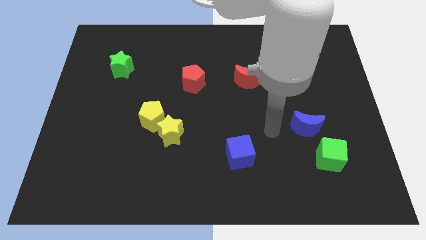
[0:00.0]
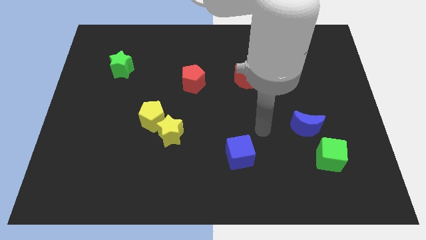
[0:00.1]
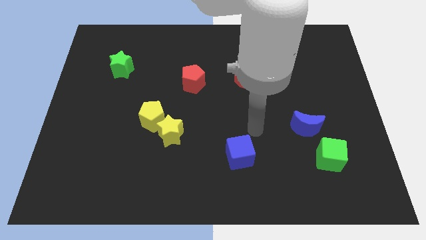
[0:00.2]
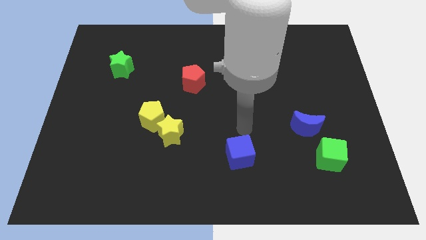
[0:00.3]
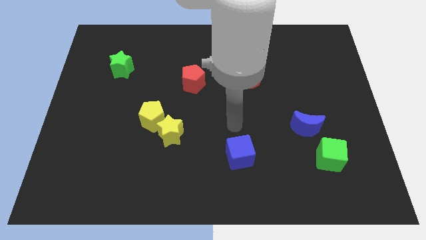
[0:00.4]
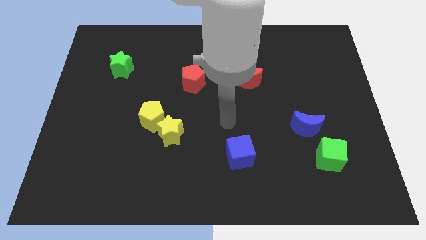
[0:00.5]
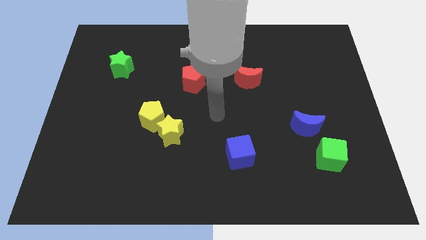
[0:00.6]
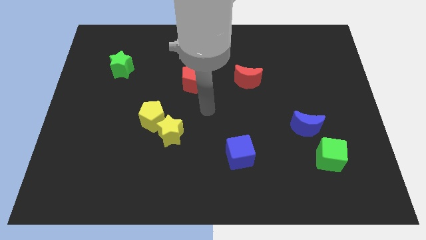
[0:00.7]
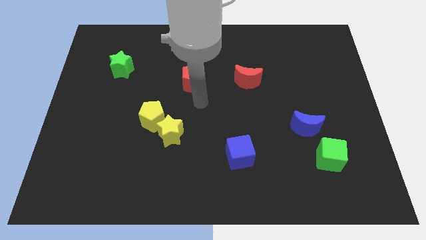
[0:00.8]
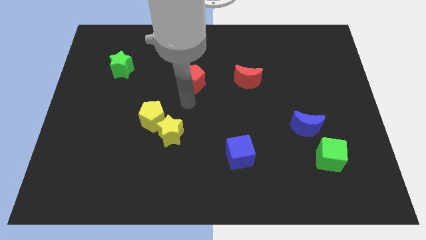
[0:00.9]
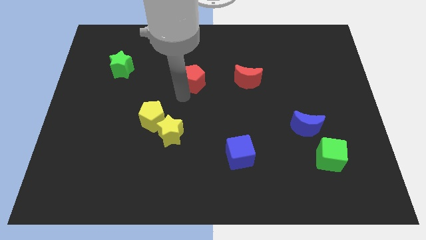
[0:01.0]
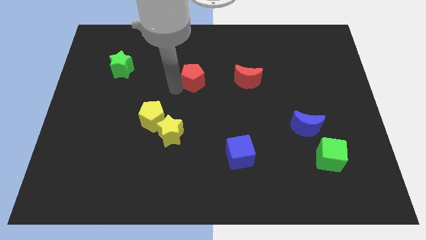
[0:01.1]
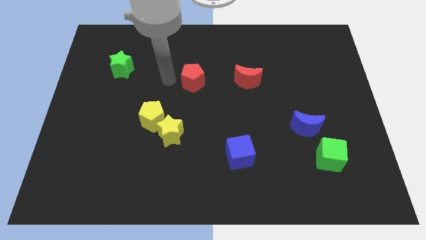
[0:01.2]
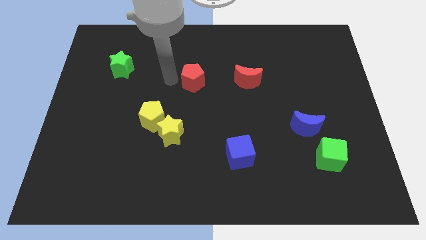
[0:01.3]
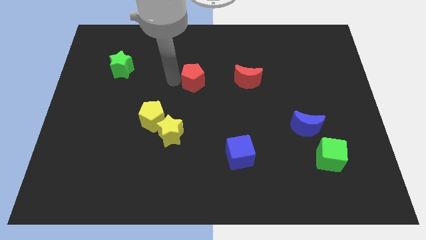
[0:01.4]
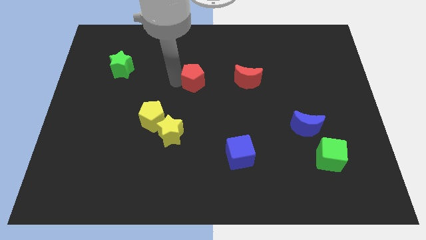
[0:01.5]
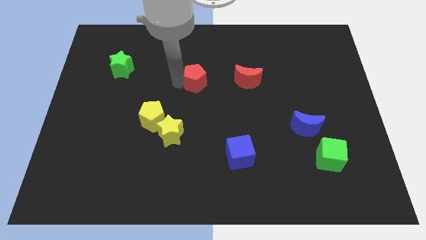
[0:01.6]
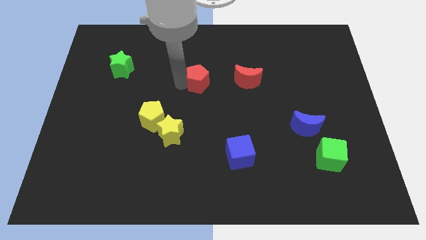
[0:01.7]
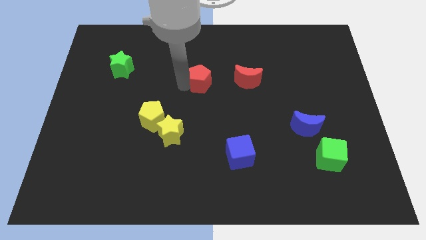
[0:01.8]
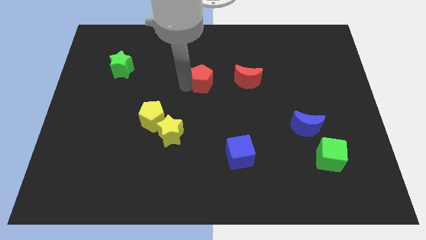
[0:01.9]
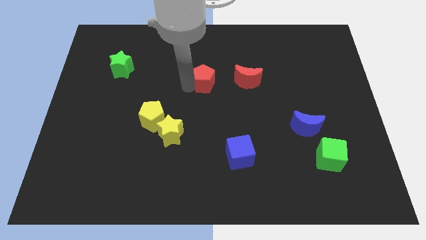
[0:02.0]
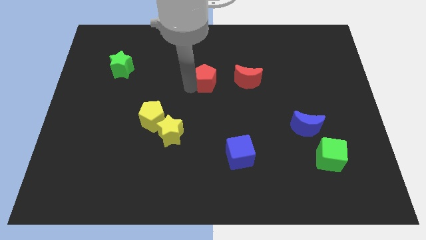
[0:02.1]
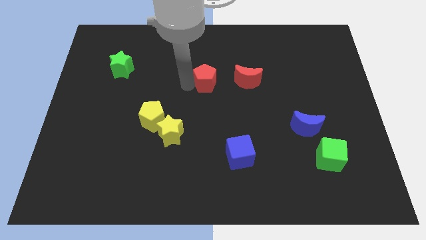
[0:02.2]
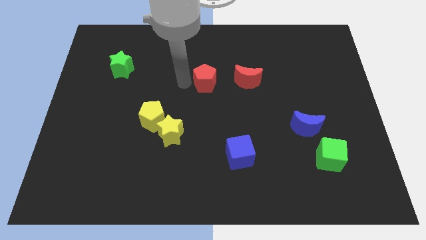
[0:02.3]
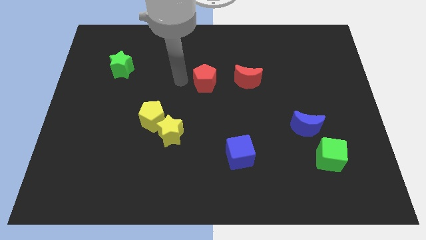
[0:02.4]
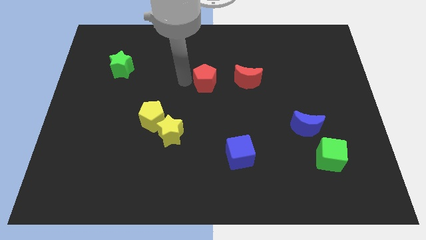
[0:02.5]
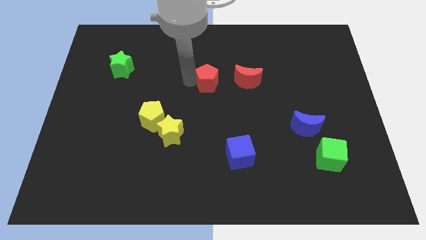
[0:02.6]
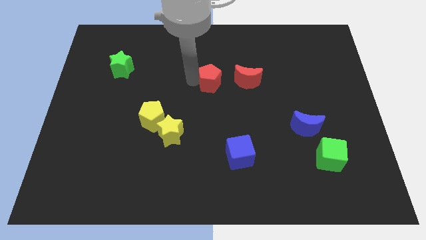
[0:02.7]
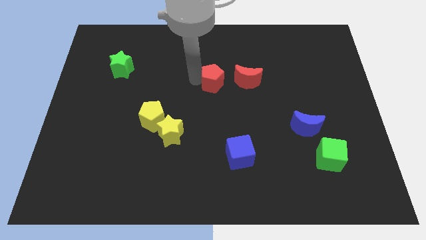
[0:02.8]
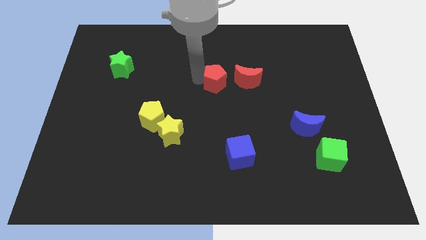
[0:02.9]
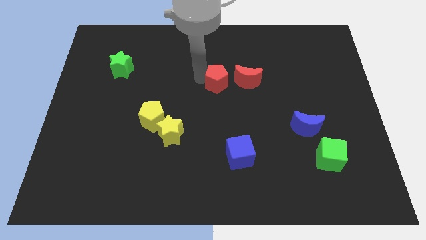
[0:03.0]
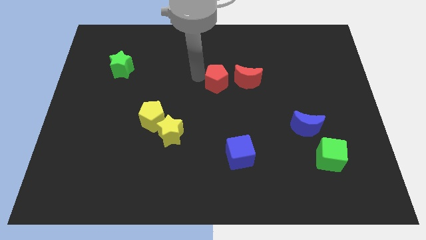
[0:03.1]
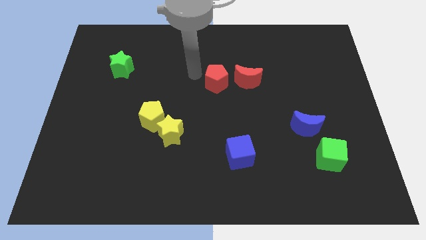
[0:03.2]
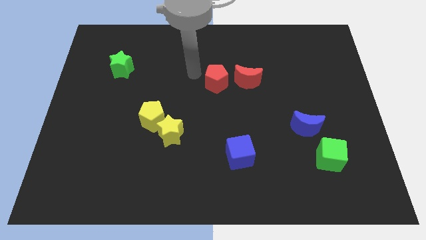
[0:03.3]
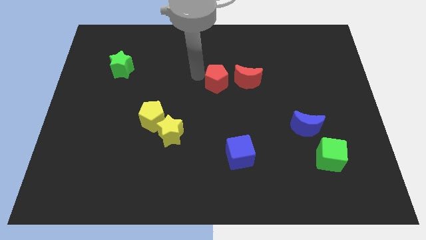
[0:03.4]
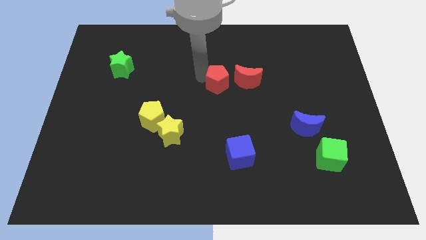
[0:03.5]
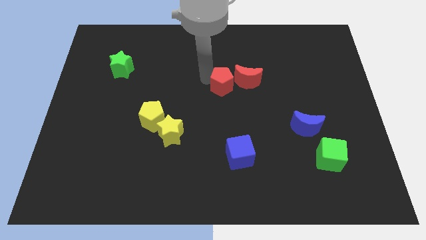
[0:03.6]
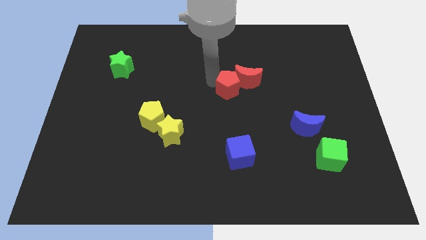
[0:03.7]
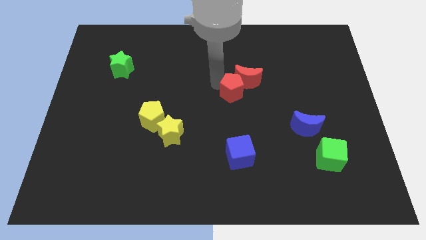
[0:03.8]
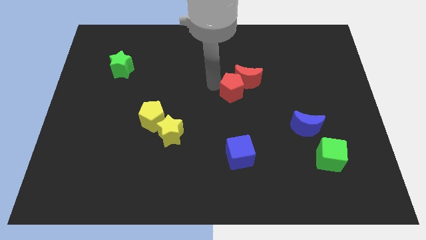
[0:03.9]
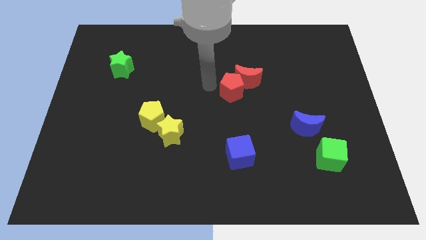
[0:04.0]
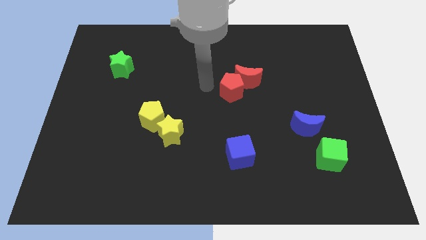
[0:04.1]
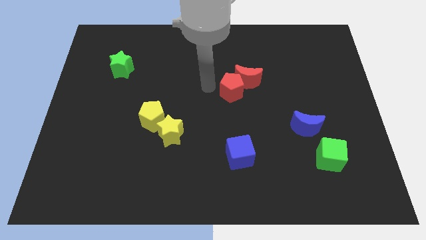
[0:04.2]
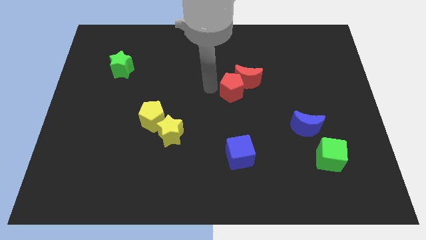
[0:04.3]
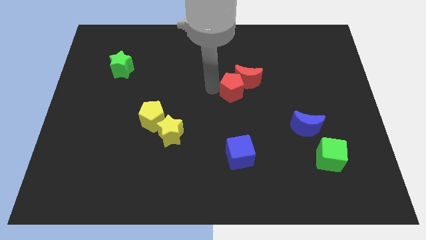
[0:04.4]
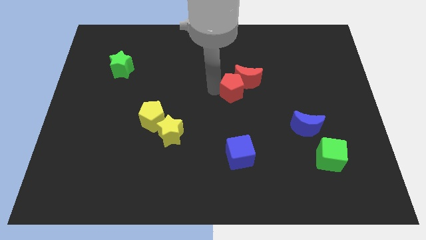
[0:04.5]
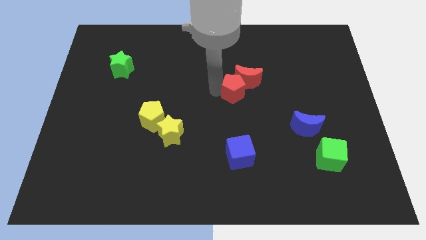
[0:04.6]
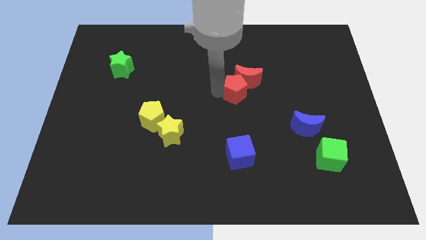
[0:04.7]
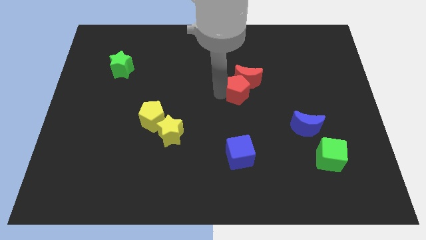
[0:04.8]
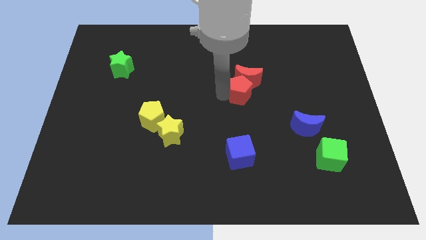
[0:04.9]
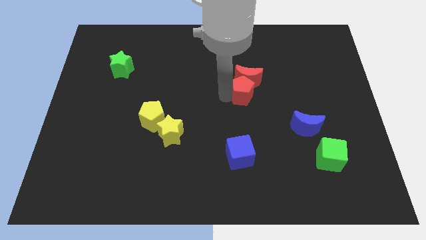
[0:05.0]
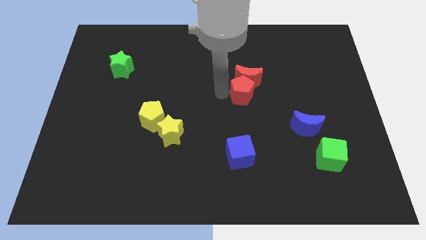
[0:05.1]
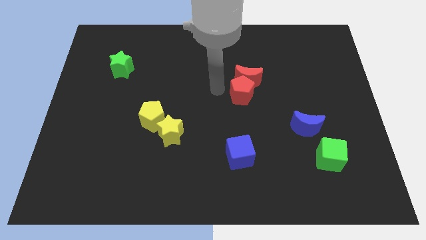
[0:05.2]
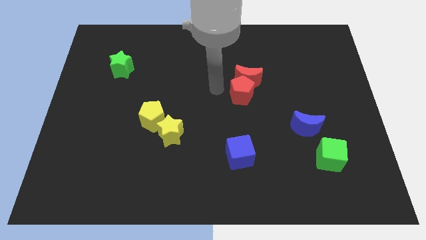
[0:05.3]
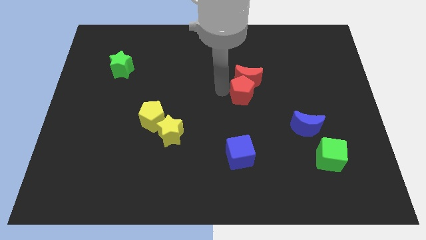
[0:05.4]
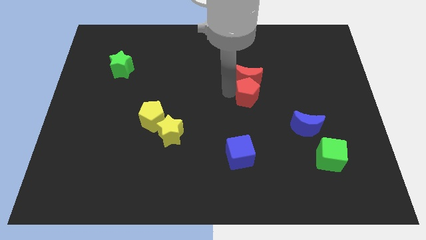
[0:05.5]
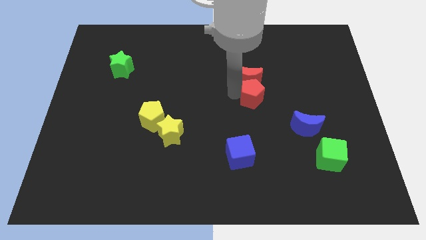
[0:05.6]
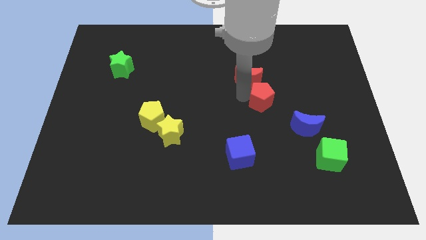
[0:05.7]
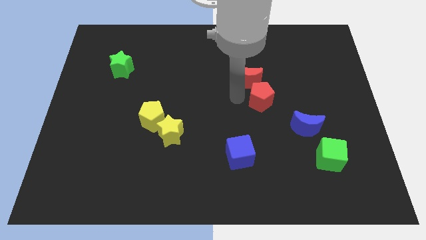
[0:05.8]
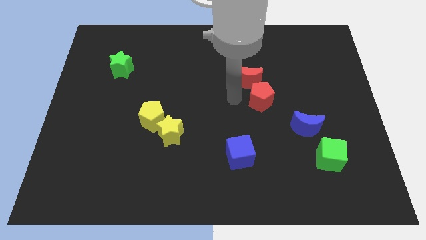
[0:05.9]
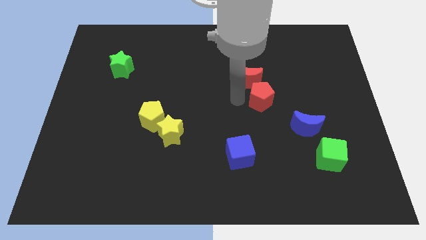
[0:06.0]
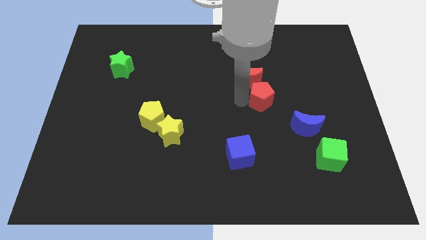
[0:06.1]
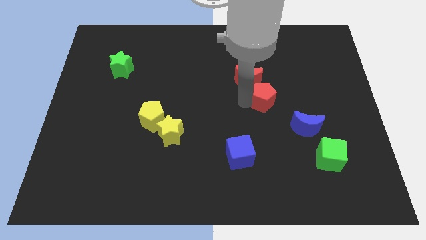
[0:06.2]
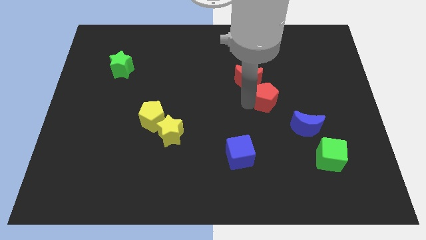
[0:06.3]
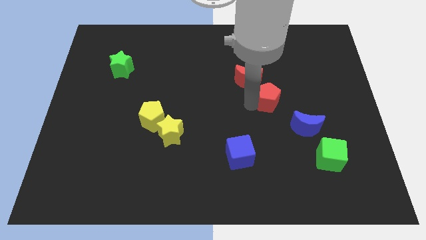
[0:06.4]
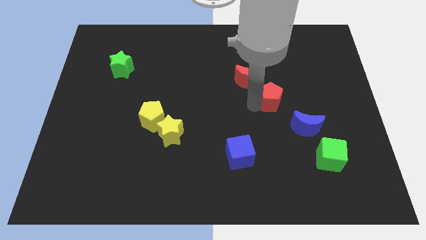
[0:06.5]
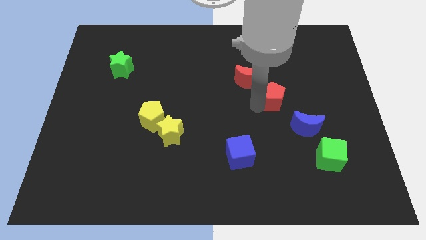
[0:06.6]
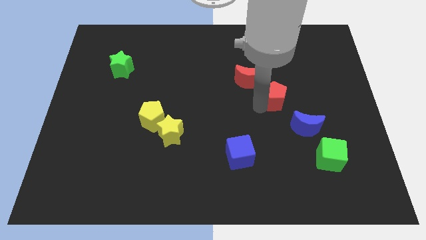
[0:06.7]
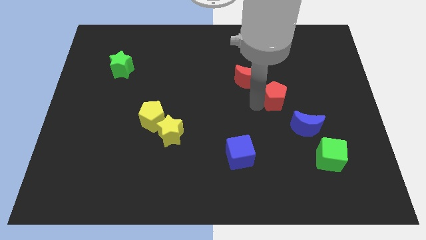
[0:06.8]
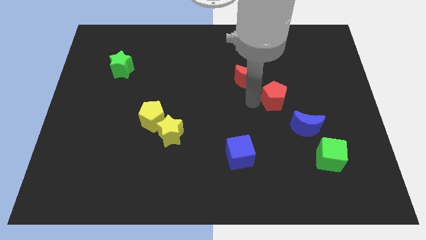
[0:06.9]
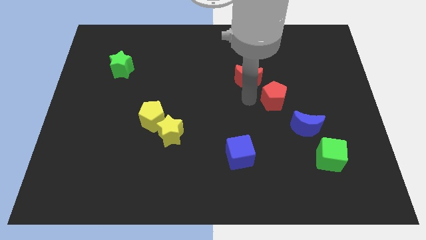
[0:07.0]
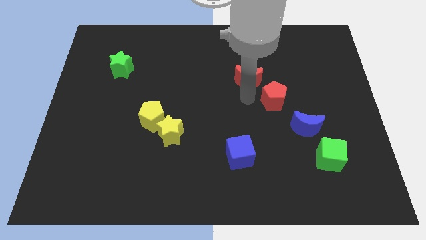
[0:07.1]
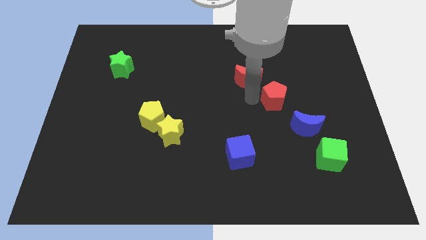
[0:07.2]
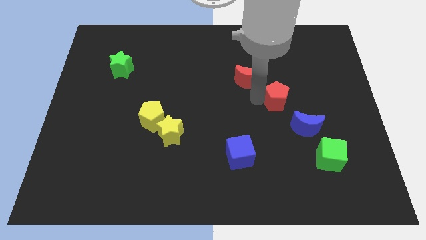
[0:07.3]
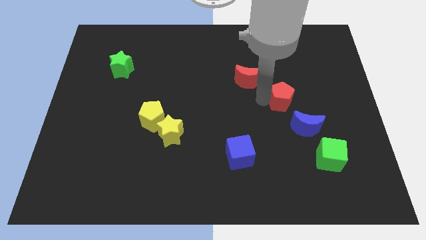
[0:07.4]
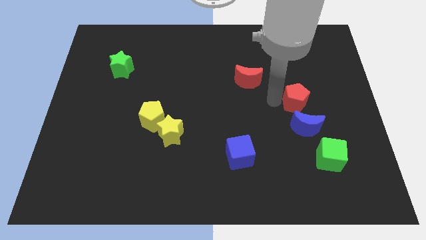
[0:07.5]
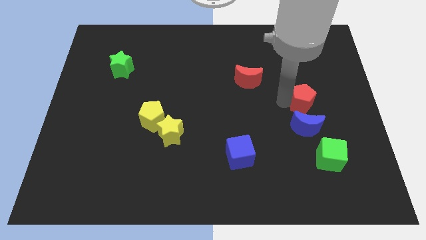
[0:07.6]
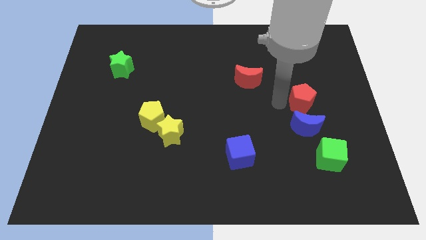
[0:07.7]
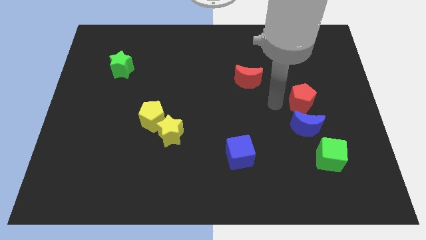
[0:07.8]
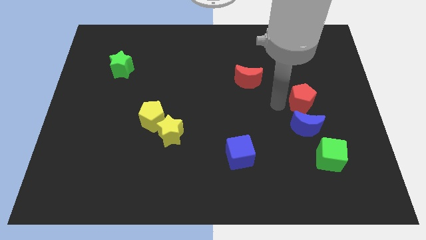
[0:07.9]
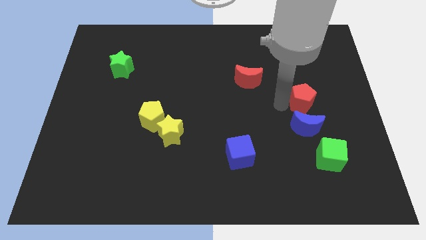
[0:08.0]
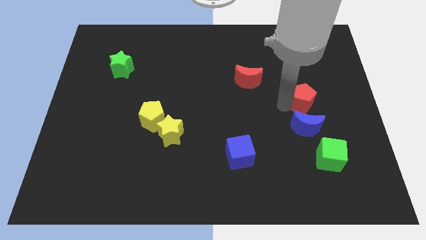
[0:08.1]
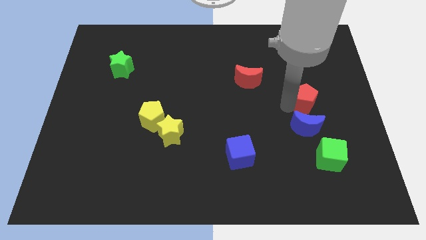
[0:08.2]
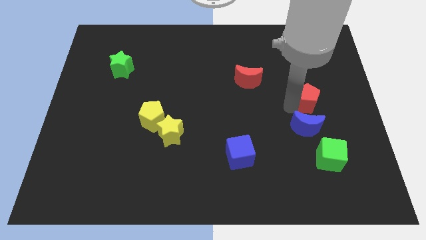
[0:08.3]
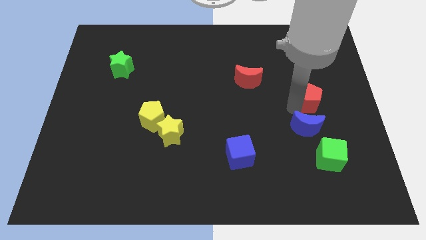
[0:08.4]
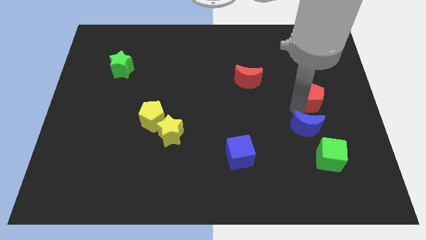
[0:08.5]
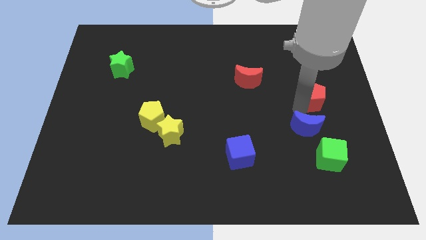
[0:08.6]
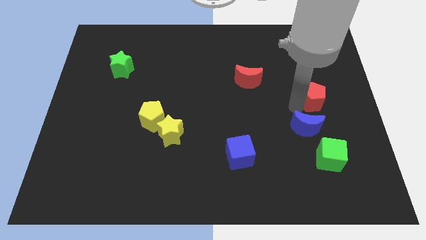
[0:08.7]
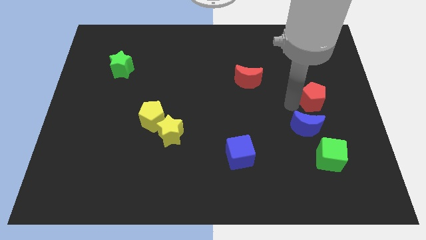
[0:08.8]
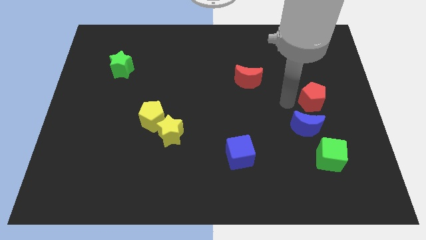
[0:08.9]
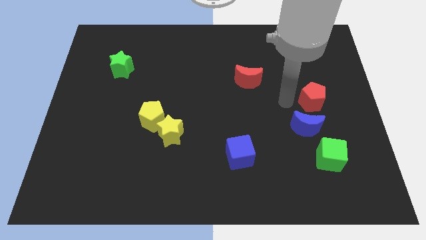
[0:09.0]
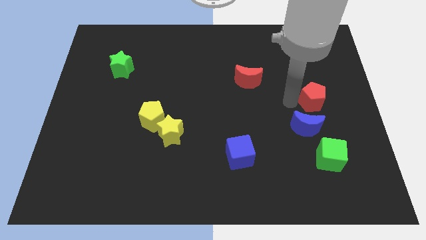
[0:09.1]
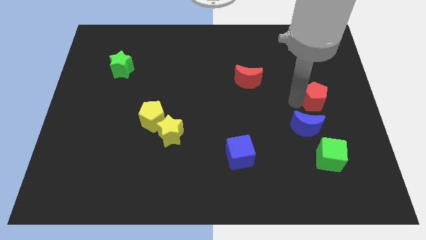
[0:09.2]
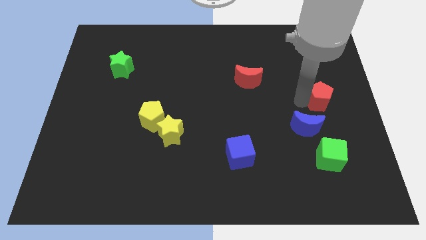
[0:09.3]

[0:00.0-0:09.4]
push the red pentagon to the center right
